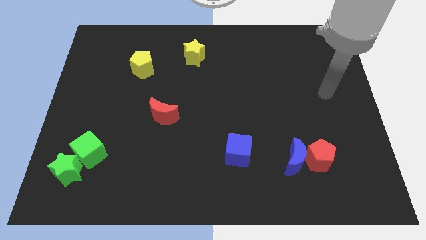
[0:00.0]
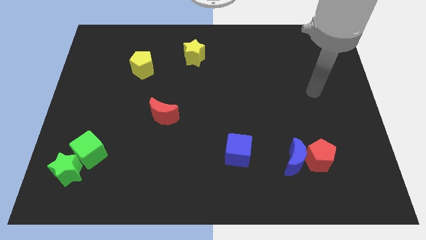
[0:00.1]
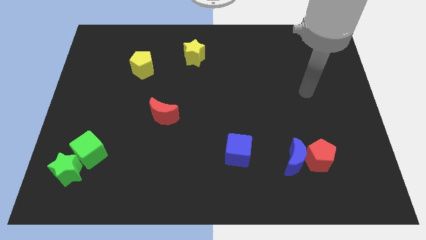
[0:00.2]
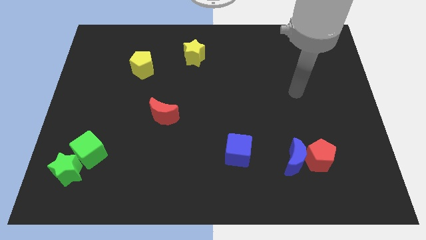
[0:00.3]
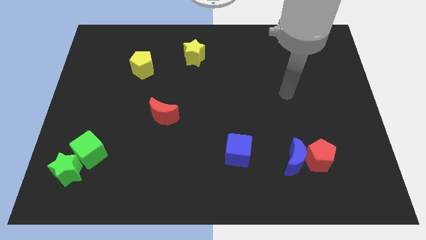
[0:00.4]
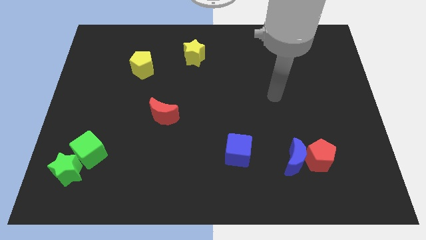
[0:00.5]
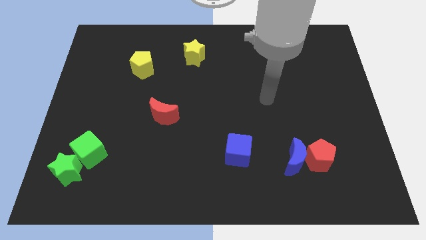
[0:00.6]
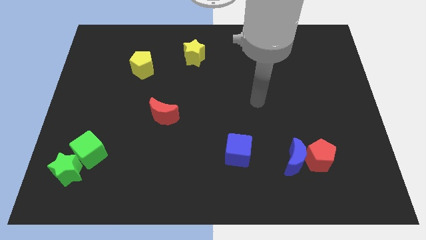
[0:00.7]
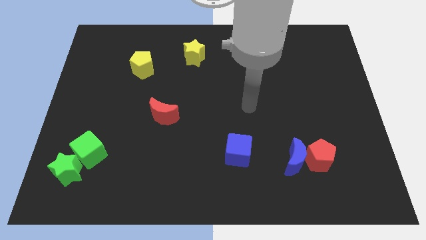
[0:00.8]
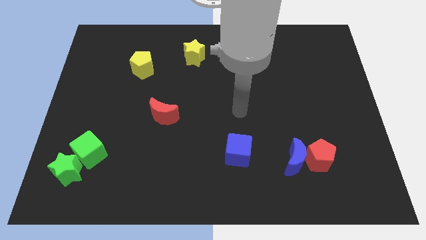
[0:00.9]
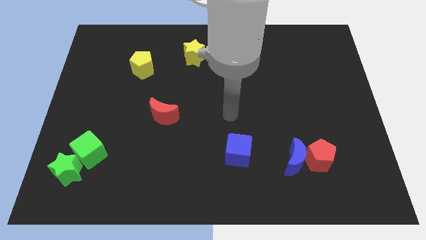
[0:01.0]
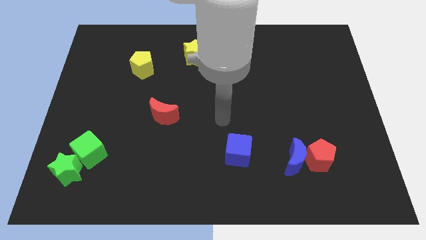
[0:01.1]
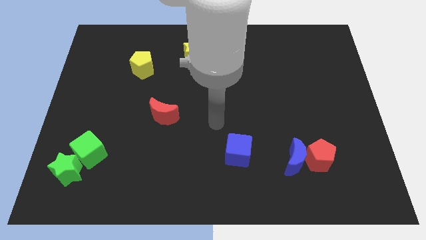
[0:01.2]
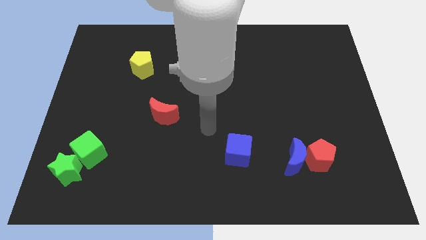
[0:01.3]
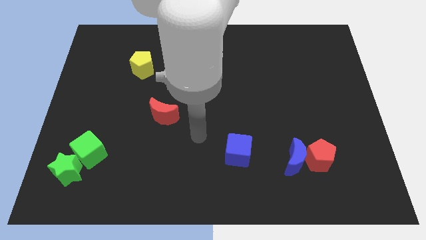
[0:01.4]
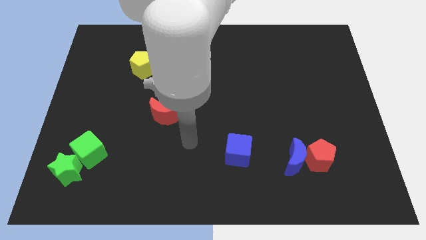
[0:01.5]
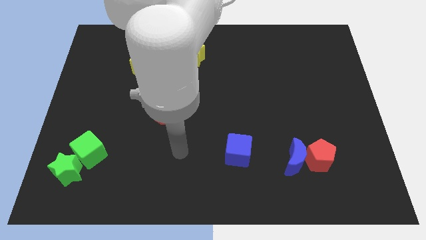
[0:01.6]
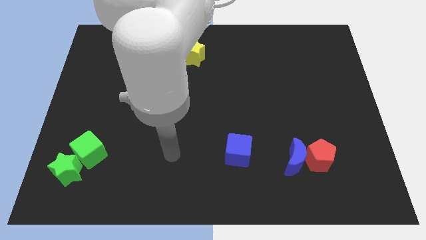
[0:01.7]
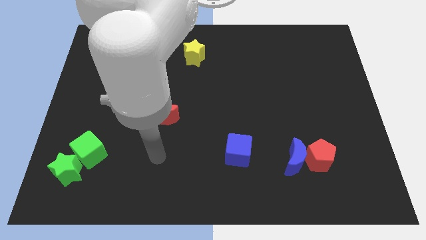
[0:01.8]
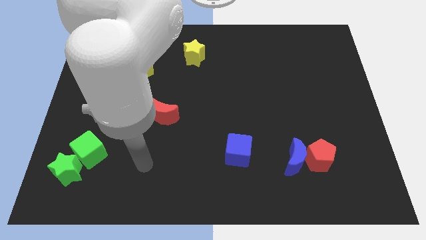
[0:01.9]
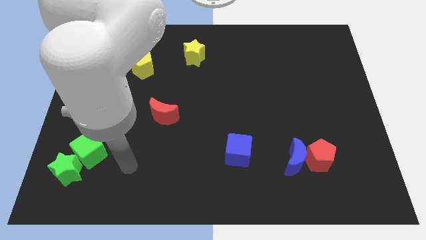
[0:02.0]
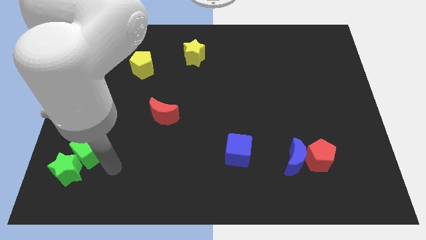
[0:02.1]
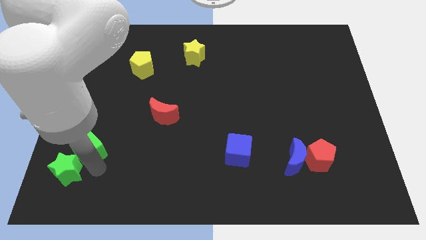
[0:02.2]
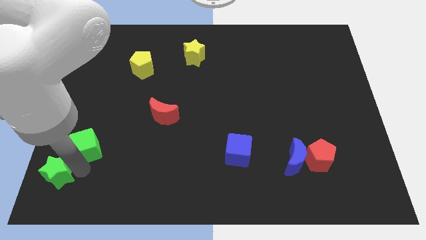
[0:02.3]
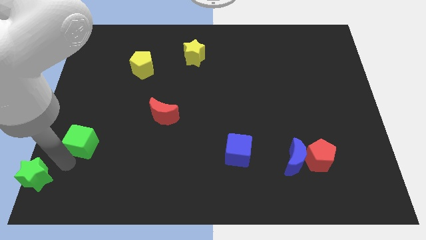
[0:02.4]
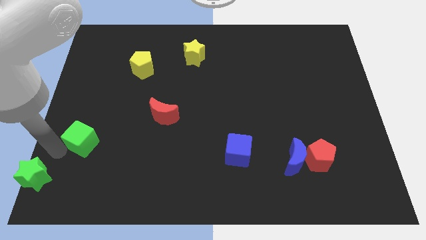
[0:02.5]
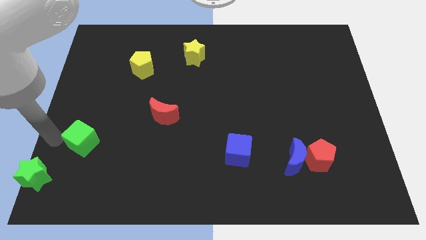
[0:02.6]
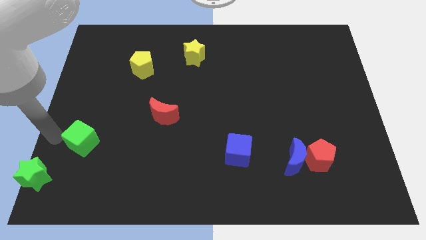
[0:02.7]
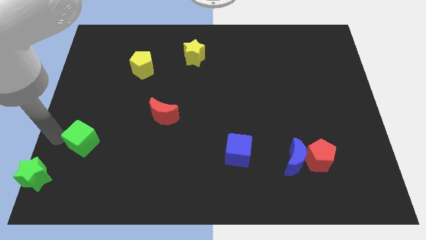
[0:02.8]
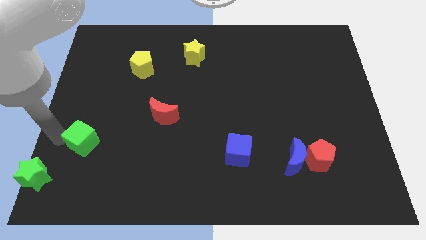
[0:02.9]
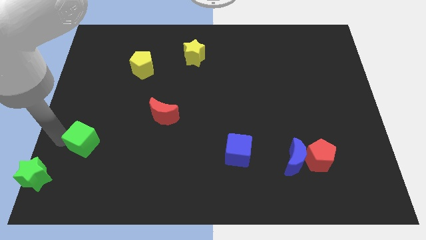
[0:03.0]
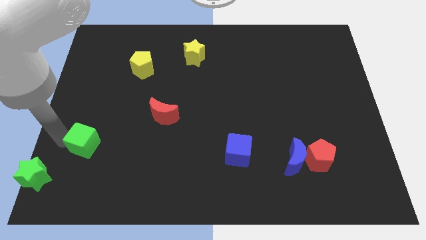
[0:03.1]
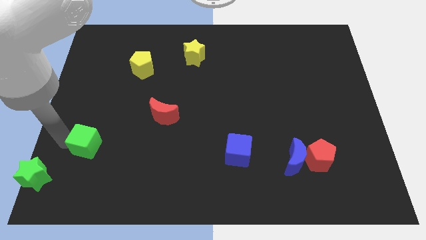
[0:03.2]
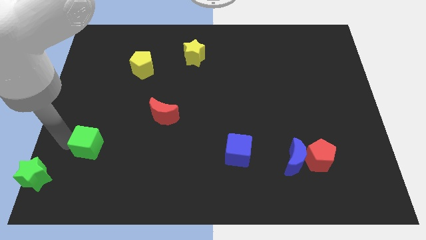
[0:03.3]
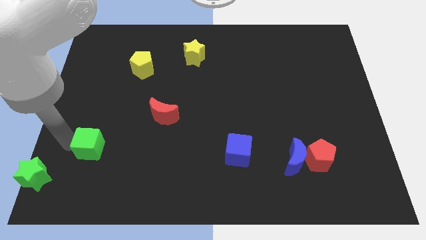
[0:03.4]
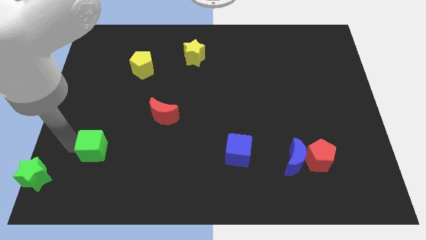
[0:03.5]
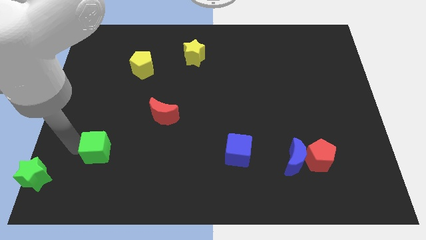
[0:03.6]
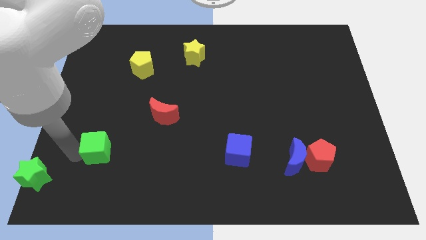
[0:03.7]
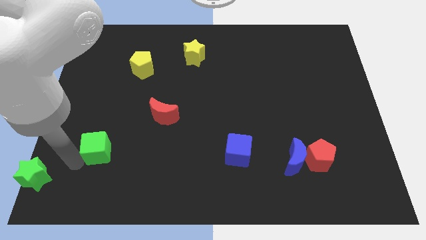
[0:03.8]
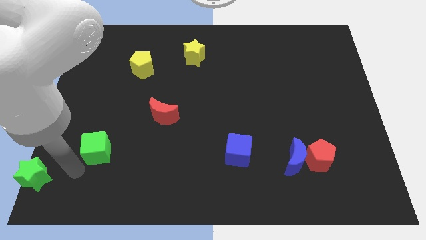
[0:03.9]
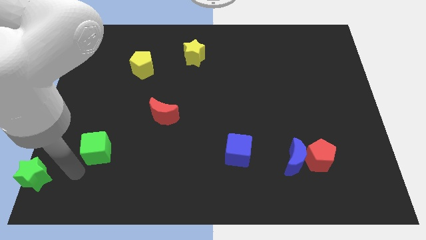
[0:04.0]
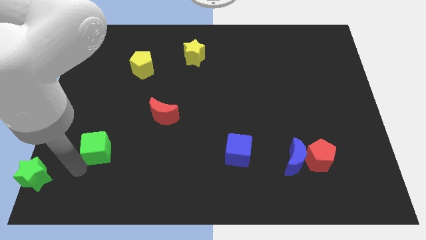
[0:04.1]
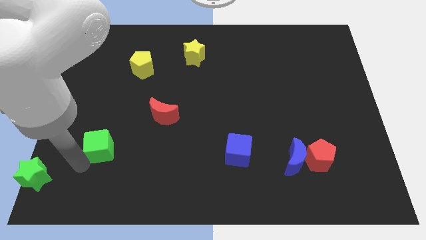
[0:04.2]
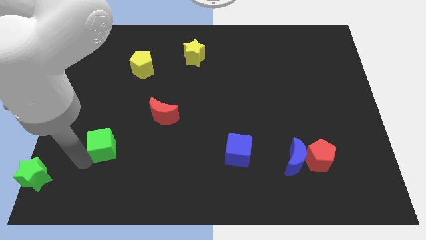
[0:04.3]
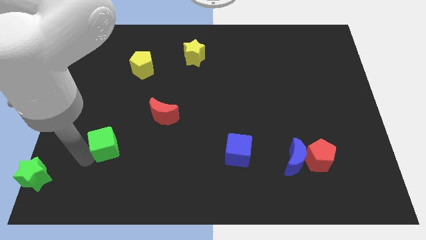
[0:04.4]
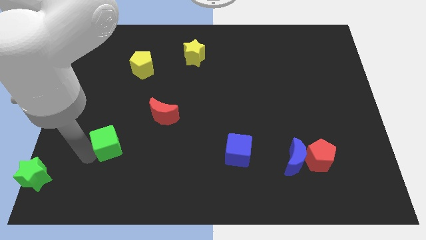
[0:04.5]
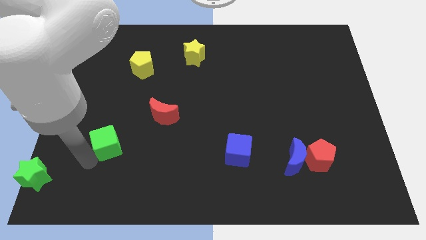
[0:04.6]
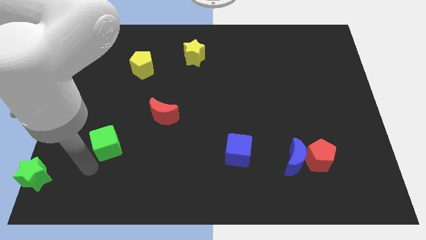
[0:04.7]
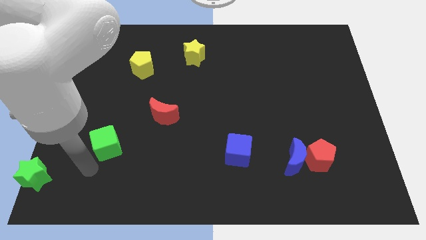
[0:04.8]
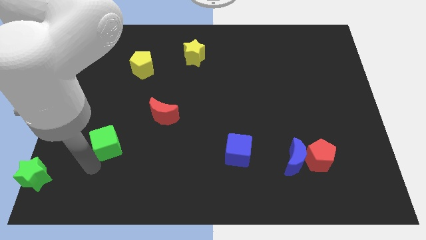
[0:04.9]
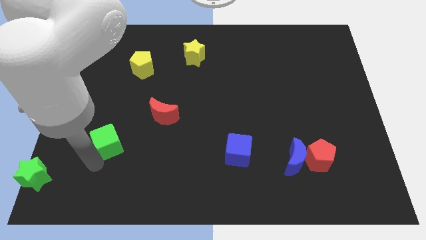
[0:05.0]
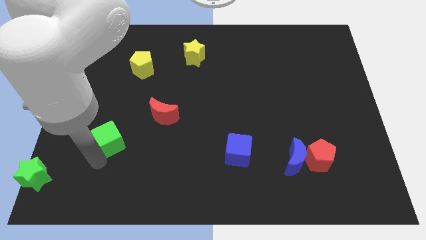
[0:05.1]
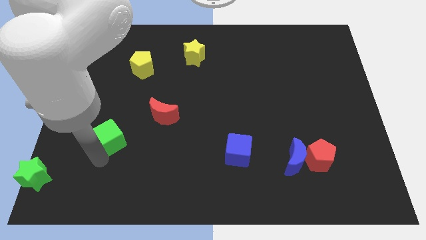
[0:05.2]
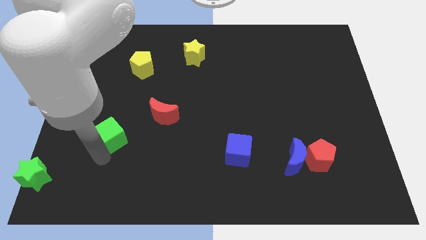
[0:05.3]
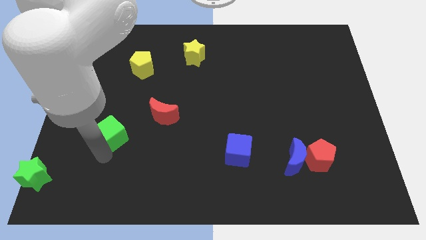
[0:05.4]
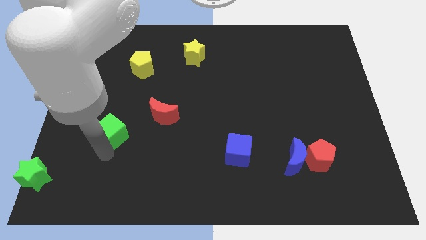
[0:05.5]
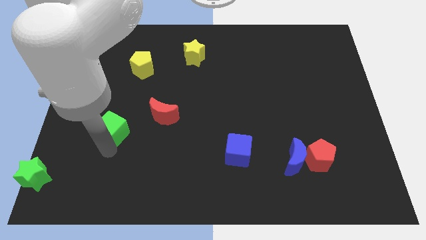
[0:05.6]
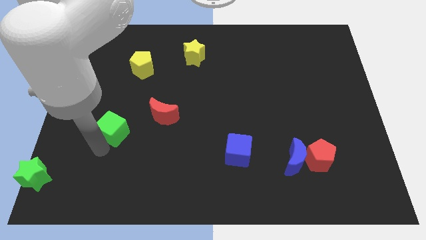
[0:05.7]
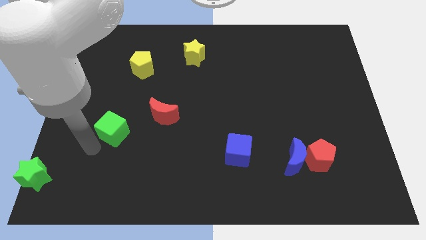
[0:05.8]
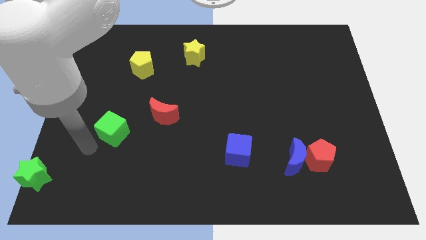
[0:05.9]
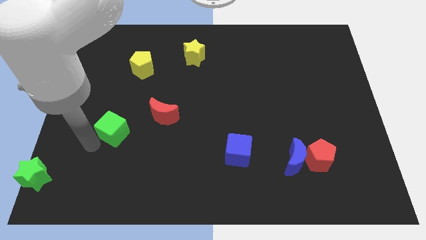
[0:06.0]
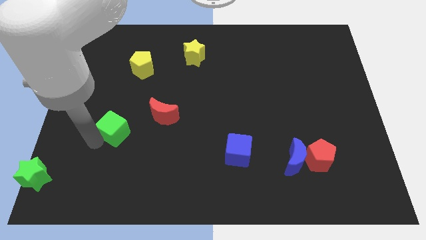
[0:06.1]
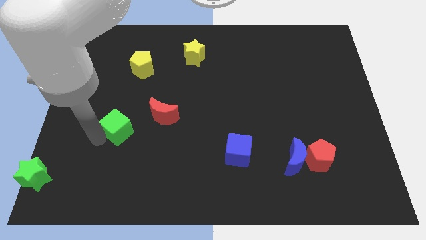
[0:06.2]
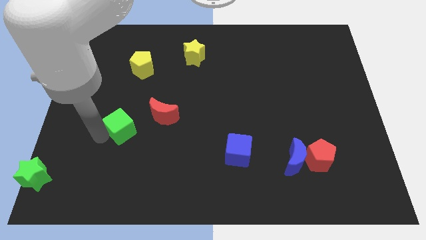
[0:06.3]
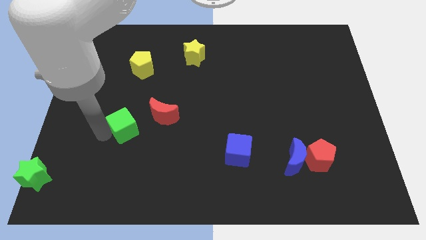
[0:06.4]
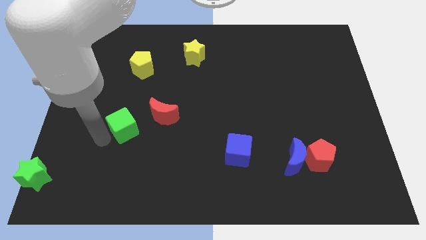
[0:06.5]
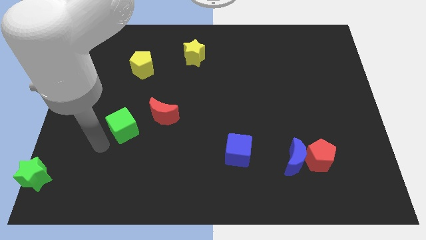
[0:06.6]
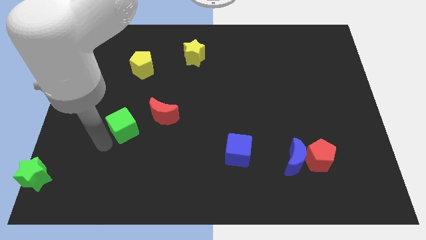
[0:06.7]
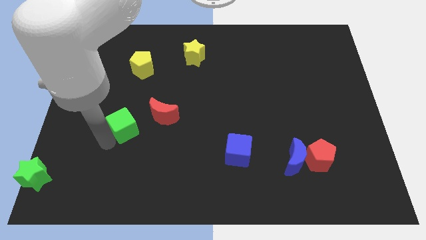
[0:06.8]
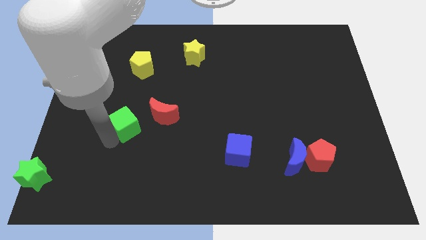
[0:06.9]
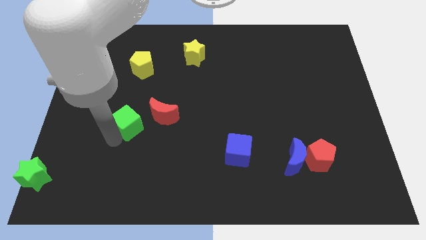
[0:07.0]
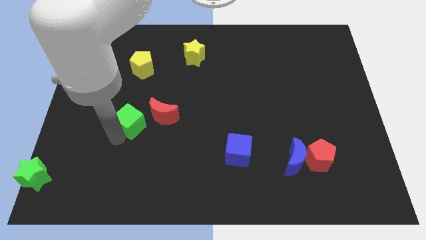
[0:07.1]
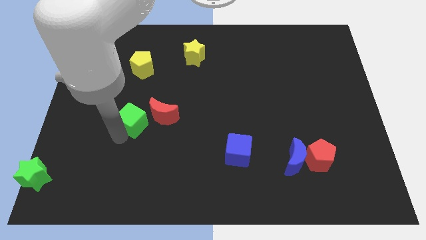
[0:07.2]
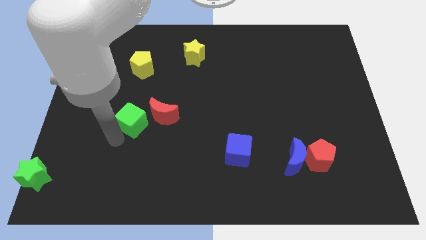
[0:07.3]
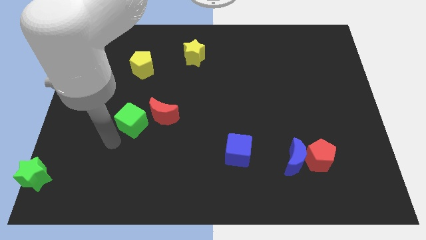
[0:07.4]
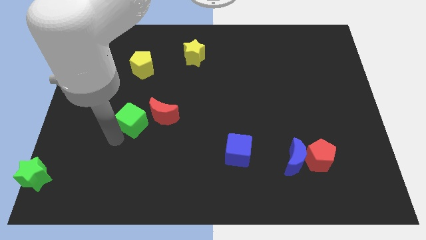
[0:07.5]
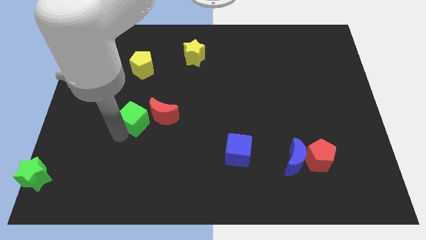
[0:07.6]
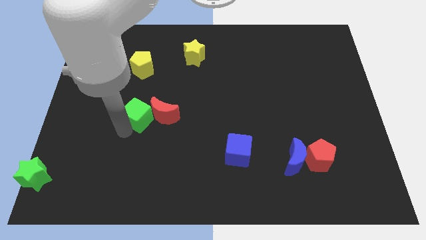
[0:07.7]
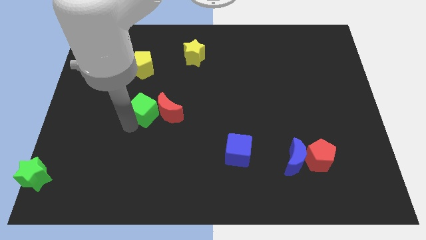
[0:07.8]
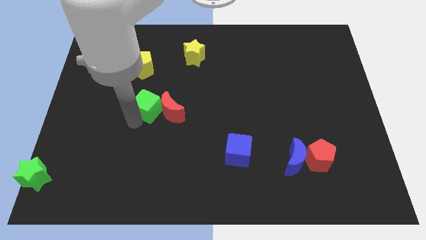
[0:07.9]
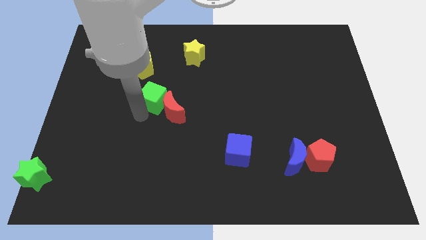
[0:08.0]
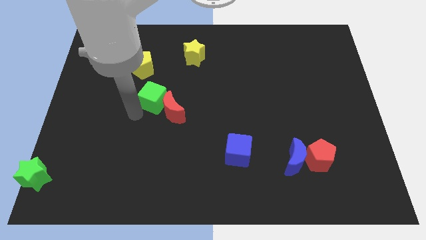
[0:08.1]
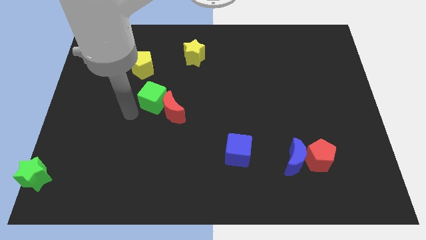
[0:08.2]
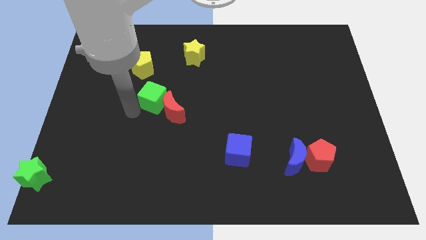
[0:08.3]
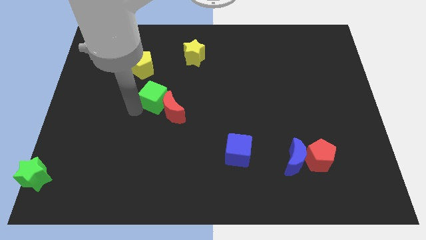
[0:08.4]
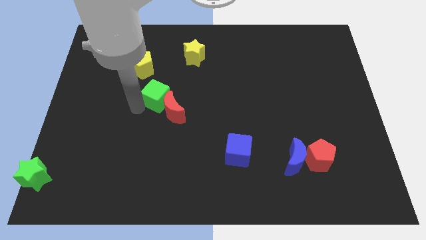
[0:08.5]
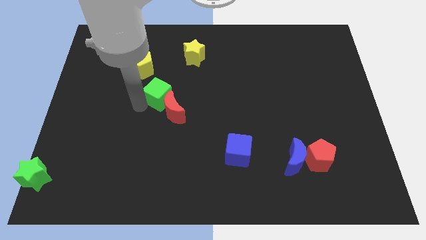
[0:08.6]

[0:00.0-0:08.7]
slide the green cube up and right
